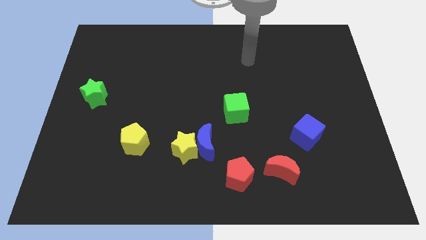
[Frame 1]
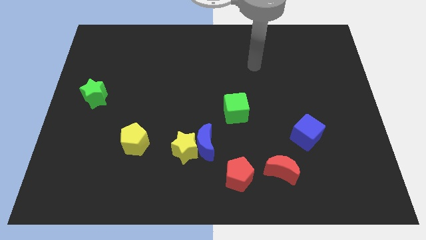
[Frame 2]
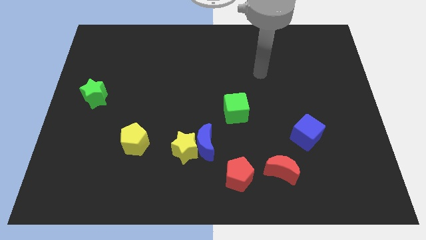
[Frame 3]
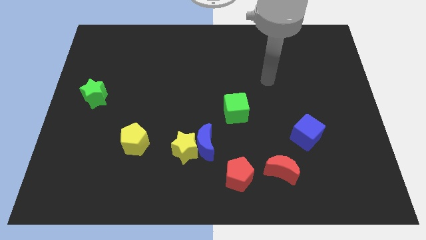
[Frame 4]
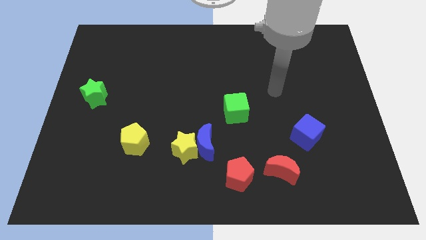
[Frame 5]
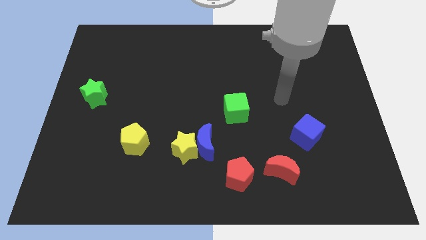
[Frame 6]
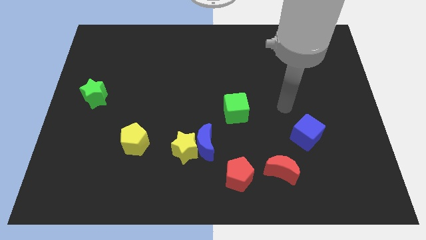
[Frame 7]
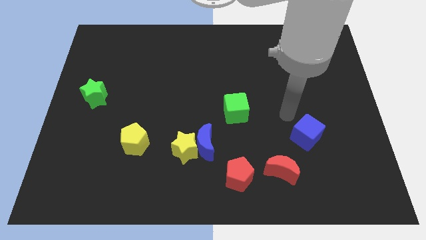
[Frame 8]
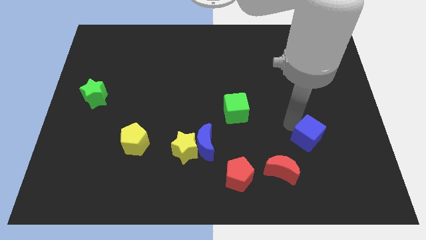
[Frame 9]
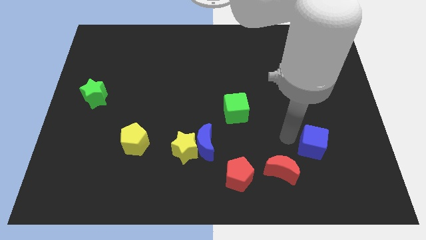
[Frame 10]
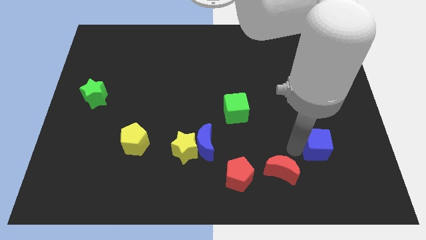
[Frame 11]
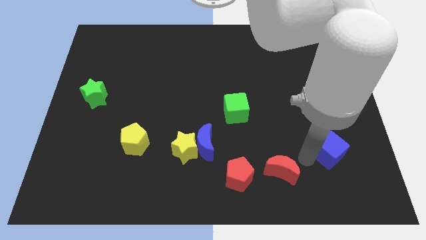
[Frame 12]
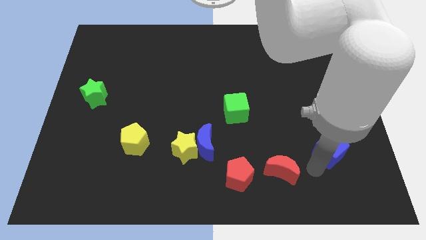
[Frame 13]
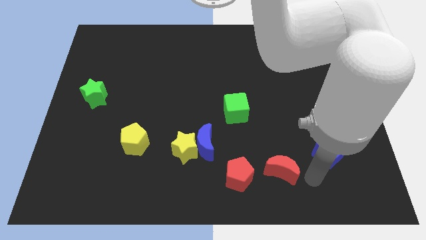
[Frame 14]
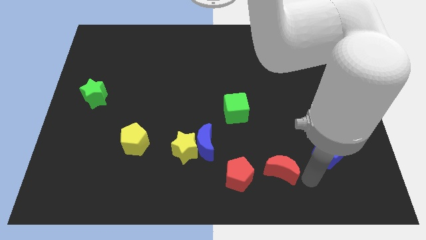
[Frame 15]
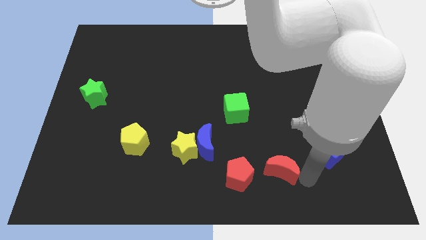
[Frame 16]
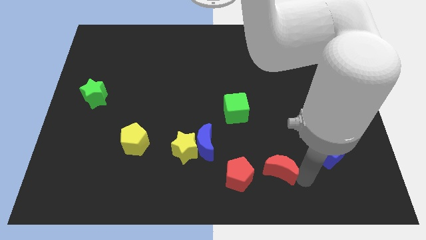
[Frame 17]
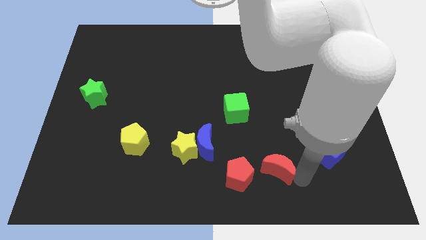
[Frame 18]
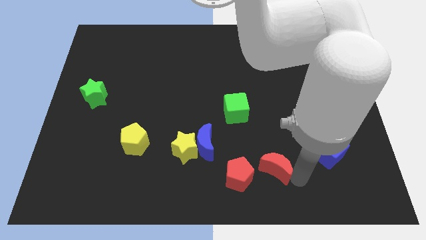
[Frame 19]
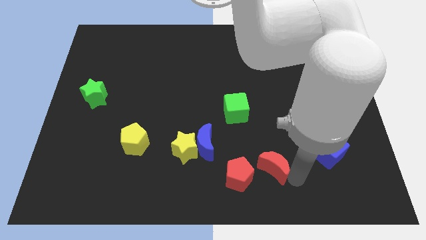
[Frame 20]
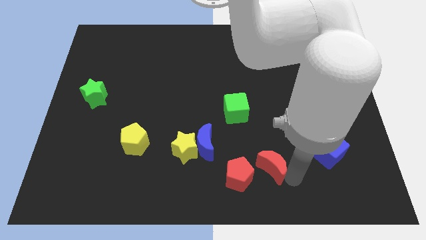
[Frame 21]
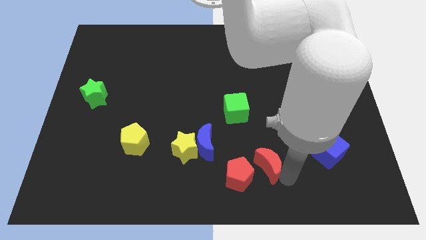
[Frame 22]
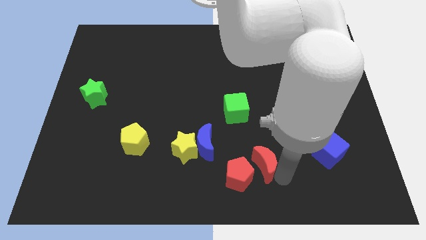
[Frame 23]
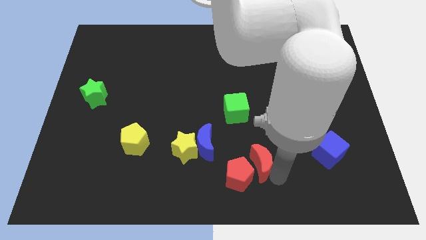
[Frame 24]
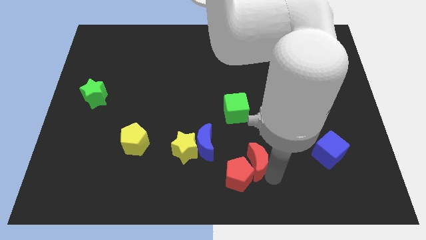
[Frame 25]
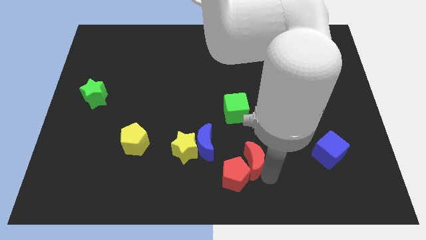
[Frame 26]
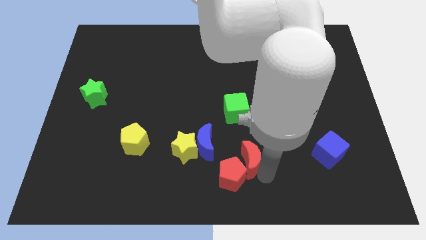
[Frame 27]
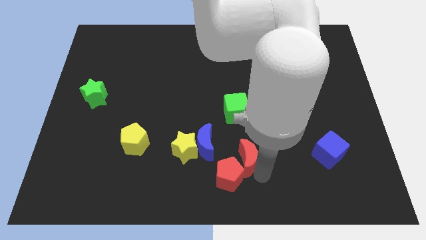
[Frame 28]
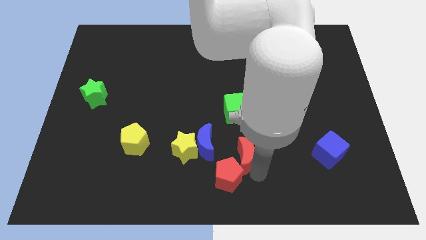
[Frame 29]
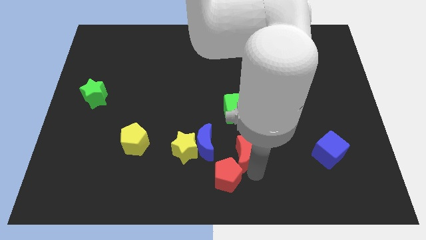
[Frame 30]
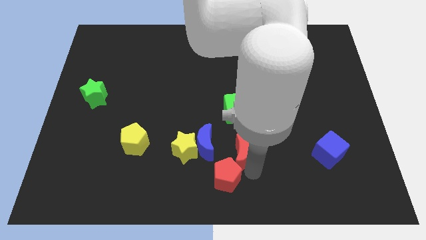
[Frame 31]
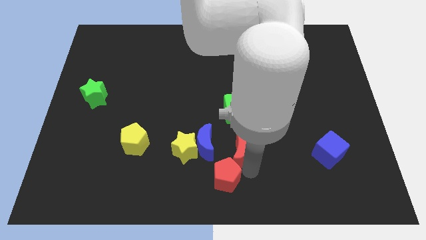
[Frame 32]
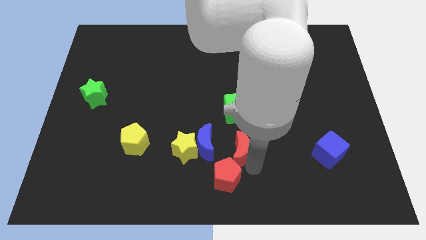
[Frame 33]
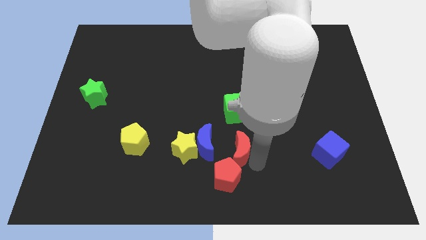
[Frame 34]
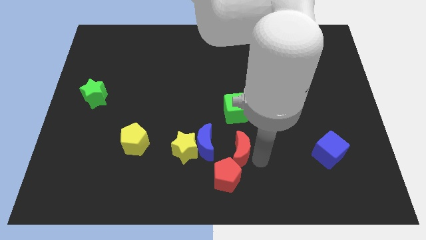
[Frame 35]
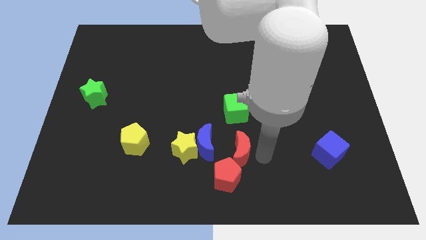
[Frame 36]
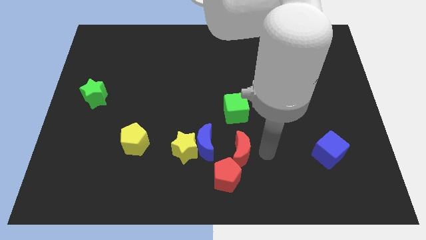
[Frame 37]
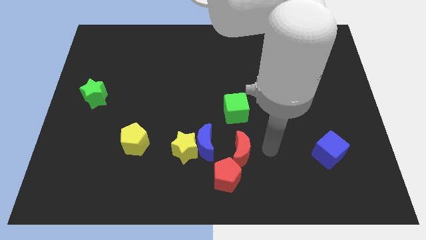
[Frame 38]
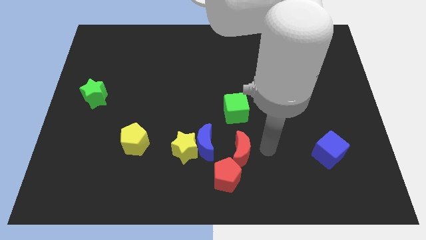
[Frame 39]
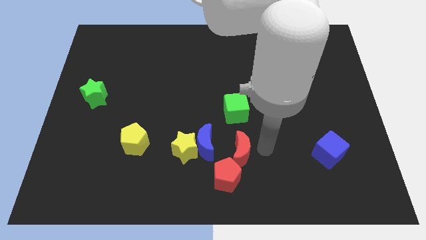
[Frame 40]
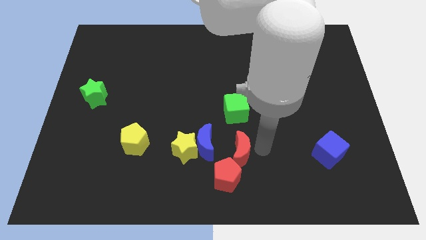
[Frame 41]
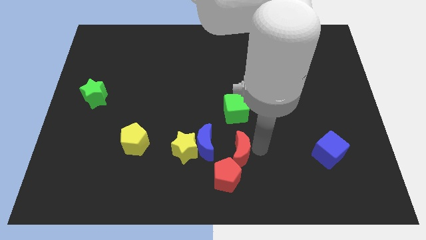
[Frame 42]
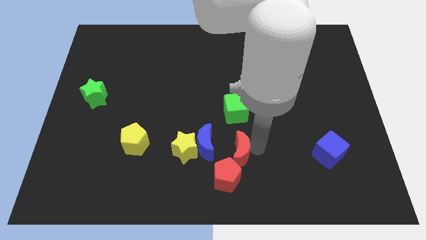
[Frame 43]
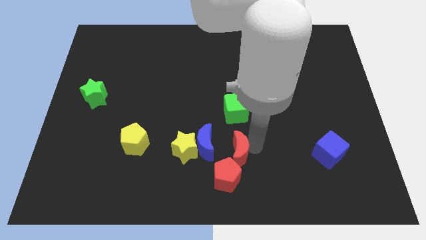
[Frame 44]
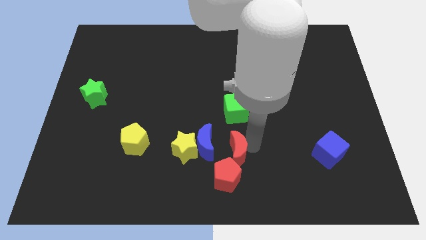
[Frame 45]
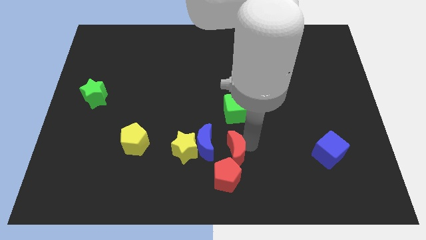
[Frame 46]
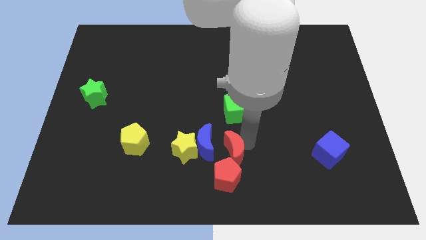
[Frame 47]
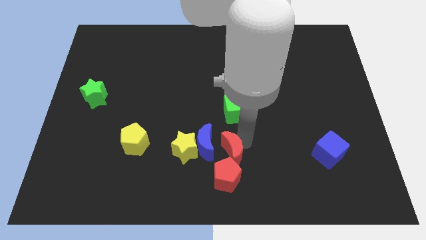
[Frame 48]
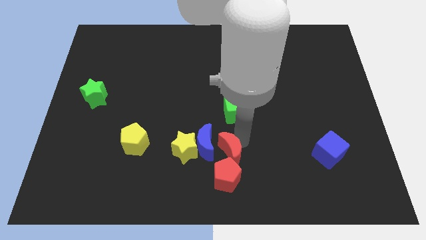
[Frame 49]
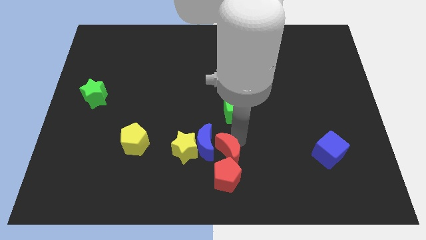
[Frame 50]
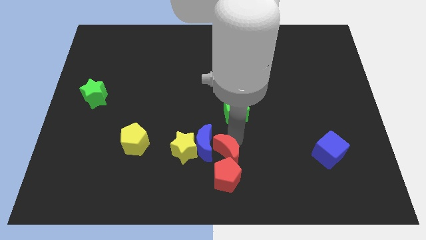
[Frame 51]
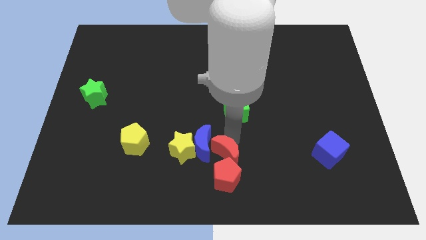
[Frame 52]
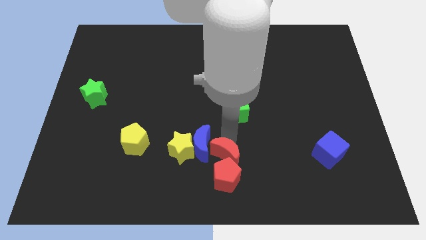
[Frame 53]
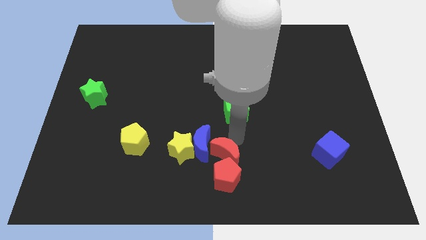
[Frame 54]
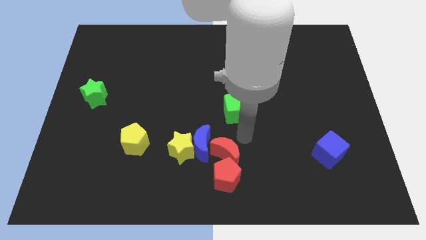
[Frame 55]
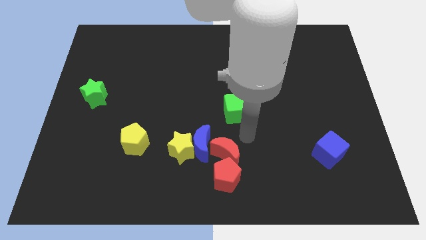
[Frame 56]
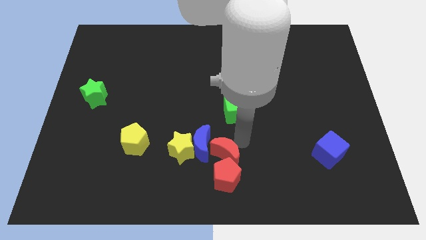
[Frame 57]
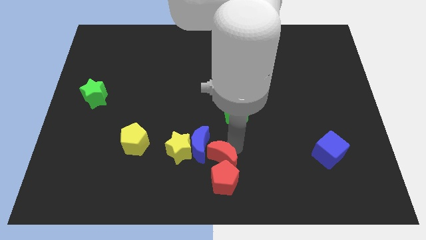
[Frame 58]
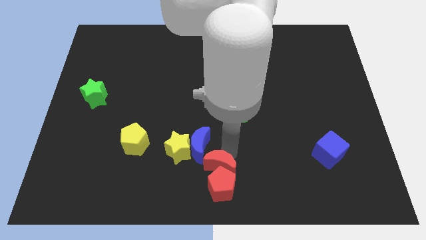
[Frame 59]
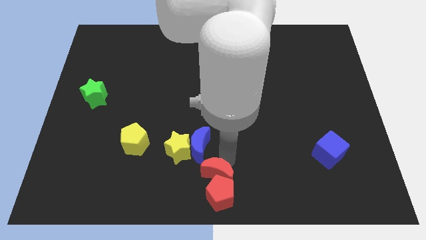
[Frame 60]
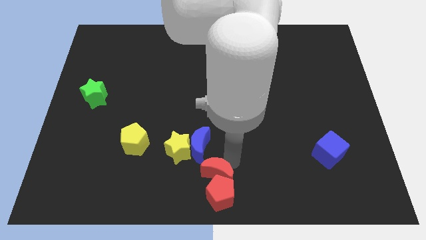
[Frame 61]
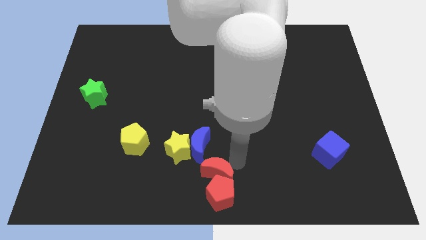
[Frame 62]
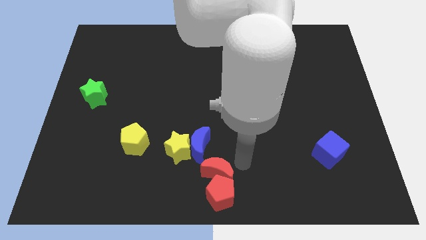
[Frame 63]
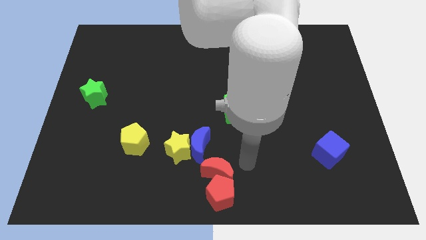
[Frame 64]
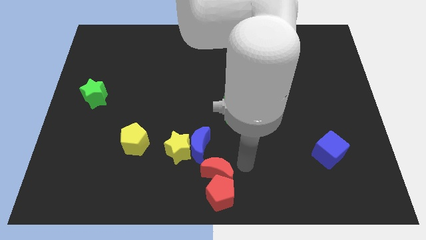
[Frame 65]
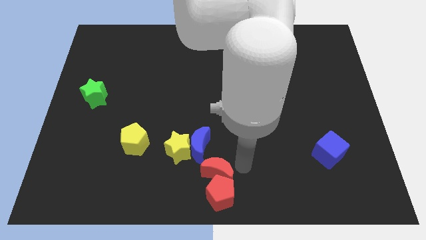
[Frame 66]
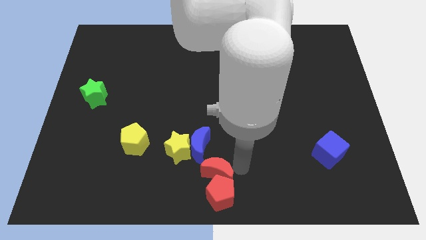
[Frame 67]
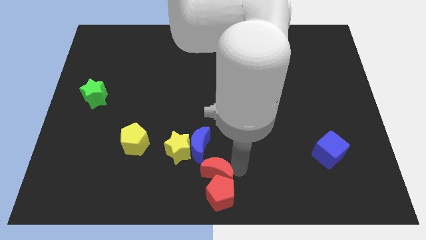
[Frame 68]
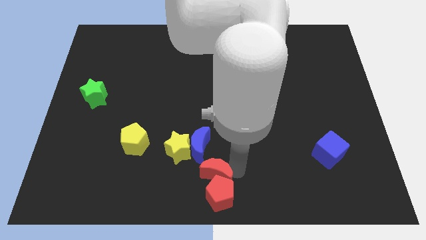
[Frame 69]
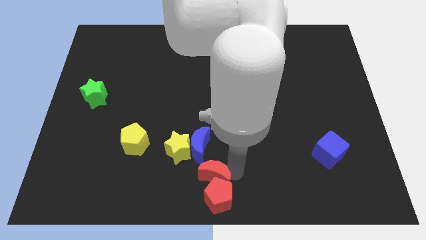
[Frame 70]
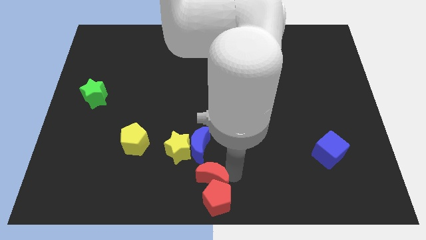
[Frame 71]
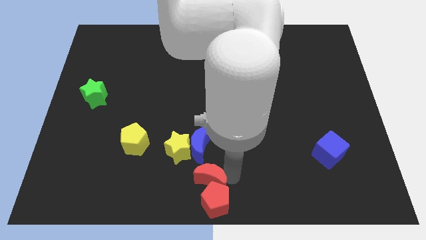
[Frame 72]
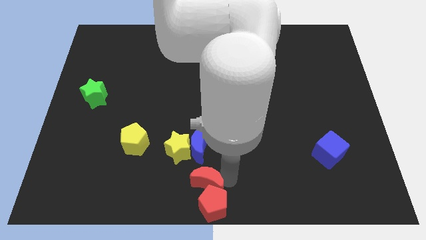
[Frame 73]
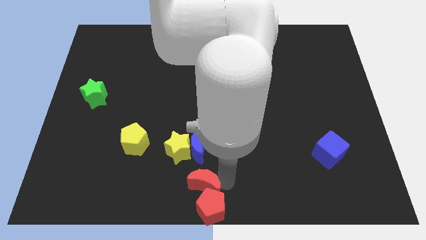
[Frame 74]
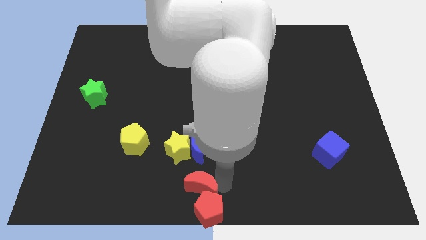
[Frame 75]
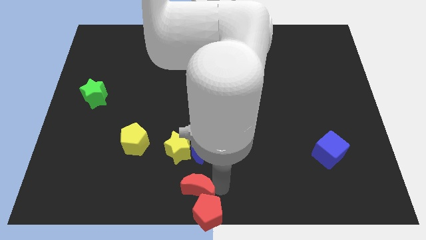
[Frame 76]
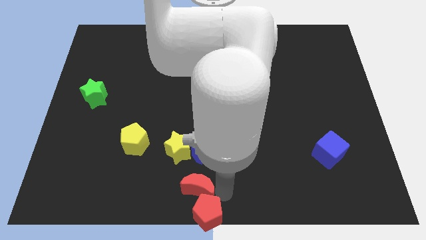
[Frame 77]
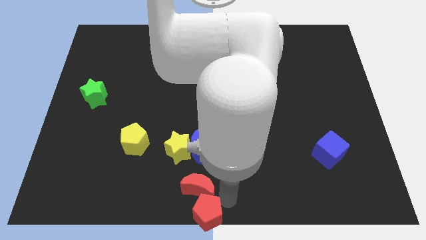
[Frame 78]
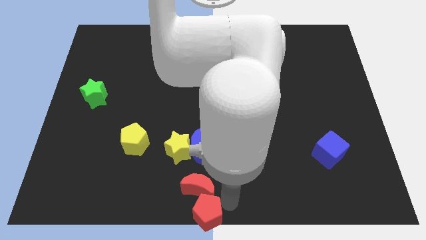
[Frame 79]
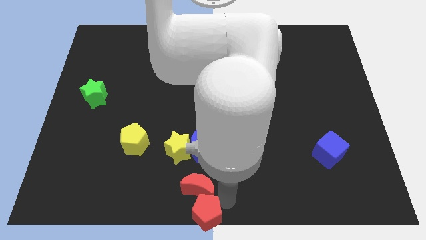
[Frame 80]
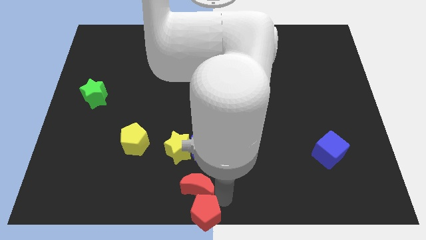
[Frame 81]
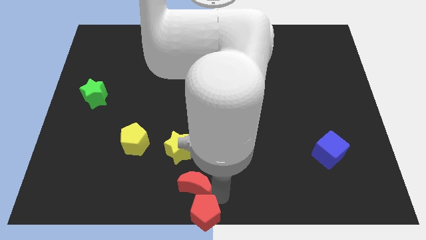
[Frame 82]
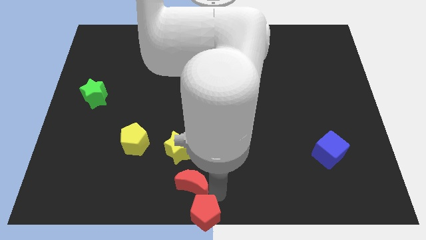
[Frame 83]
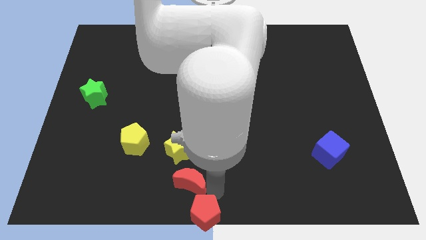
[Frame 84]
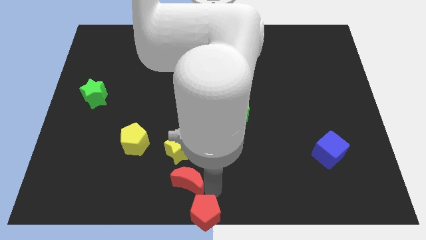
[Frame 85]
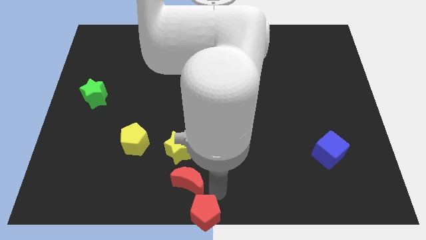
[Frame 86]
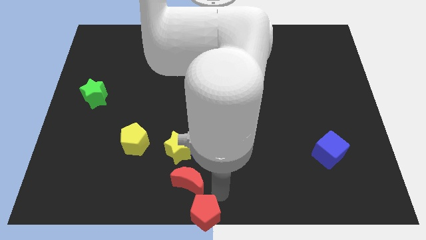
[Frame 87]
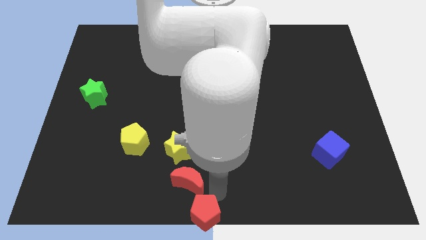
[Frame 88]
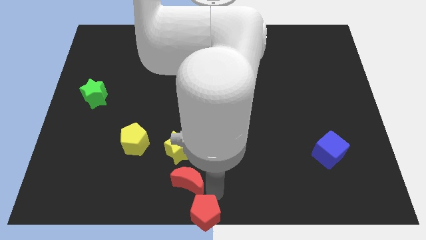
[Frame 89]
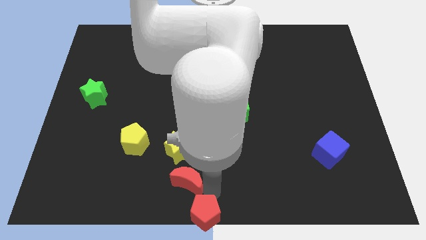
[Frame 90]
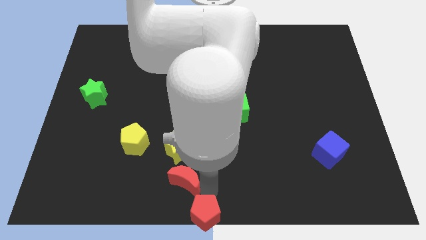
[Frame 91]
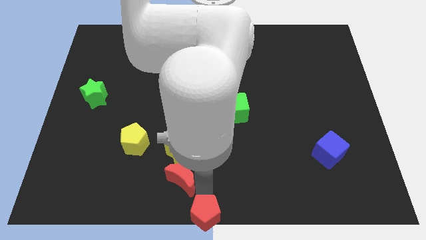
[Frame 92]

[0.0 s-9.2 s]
move the red moon to the left
